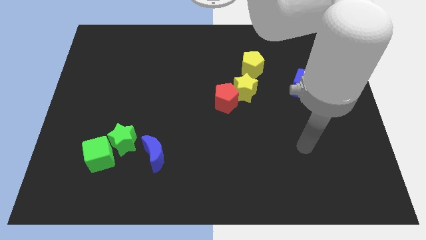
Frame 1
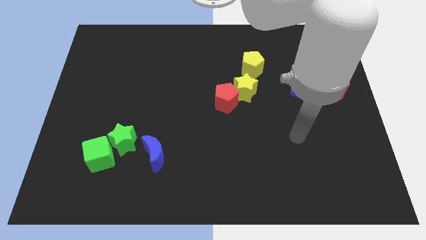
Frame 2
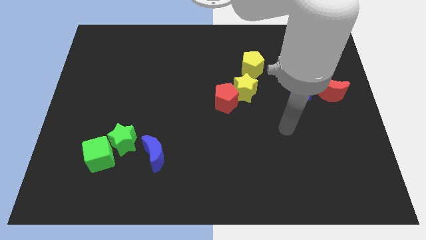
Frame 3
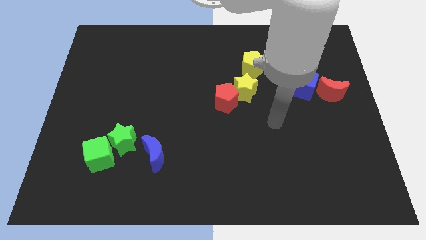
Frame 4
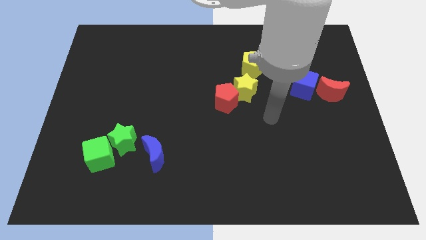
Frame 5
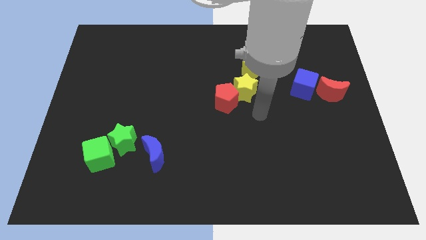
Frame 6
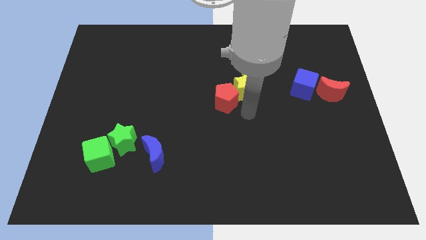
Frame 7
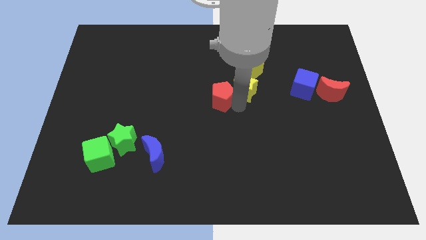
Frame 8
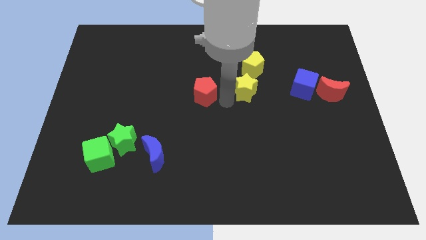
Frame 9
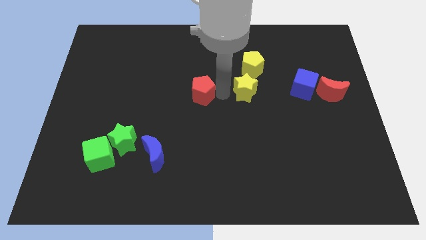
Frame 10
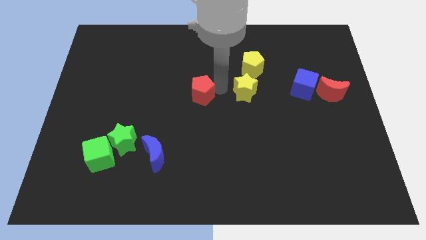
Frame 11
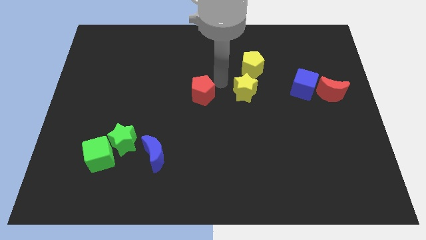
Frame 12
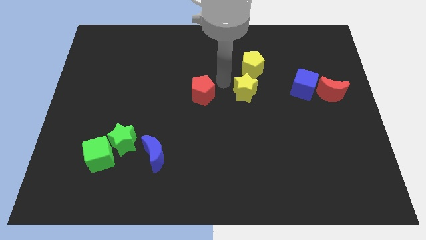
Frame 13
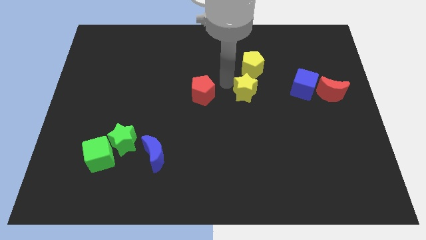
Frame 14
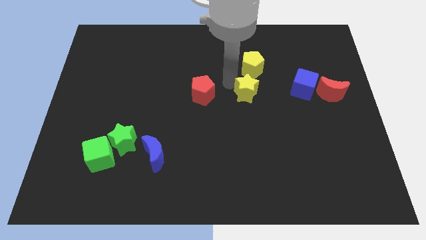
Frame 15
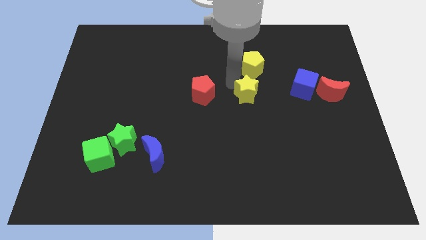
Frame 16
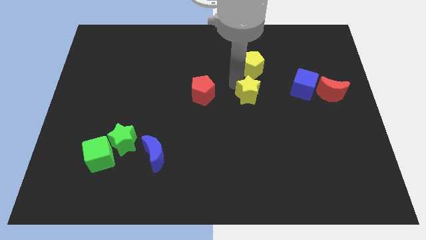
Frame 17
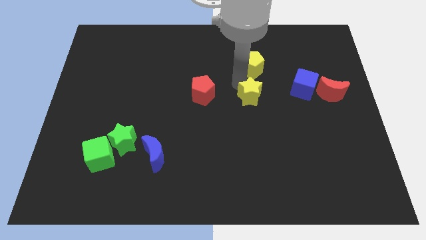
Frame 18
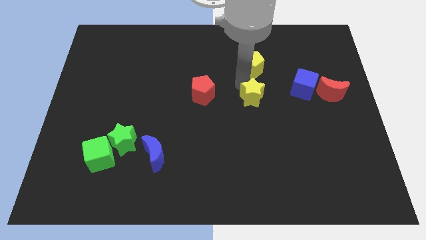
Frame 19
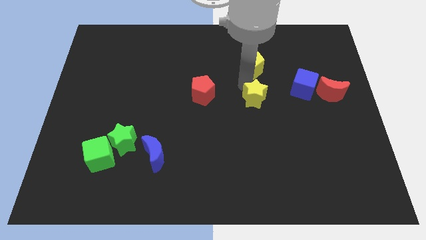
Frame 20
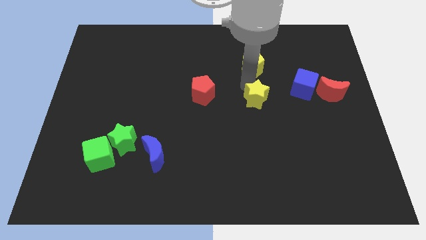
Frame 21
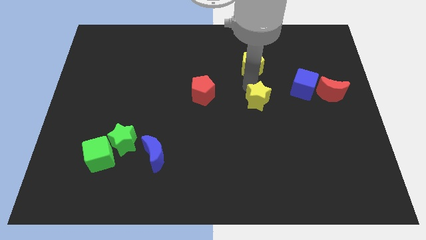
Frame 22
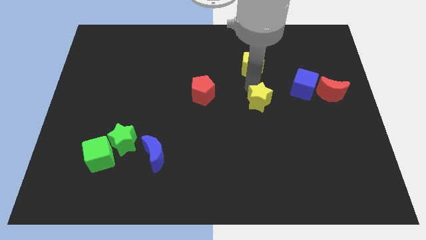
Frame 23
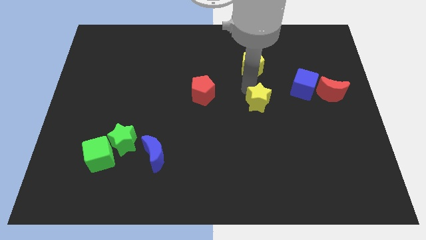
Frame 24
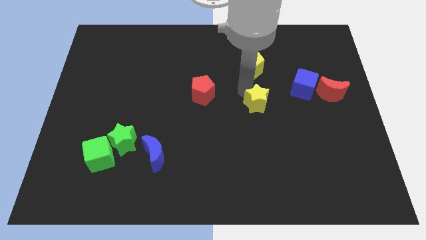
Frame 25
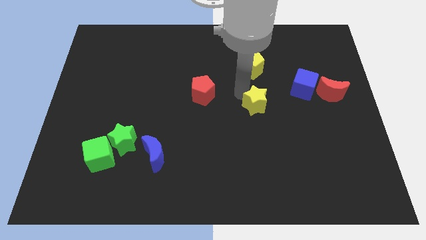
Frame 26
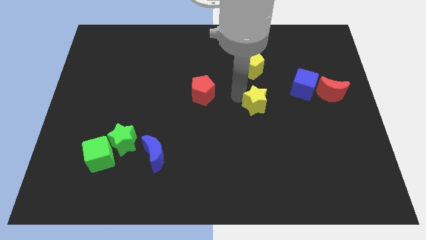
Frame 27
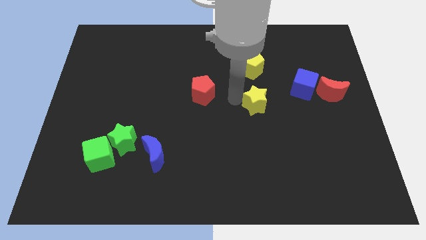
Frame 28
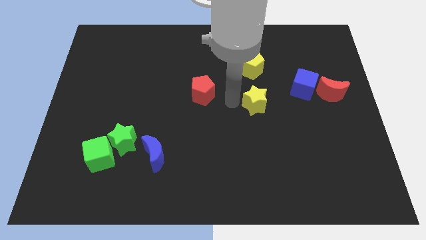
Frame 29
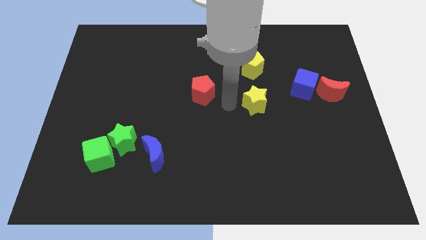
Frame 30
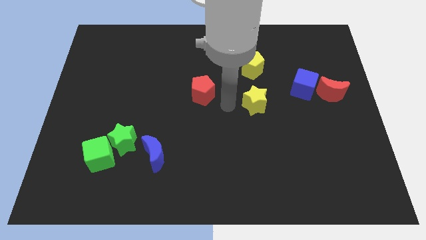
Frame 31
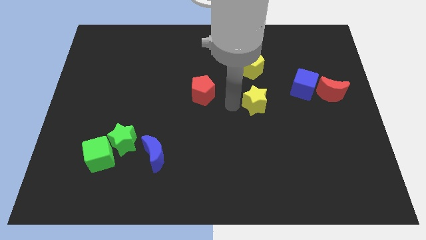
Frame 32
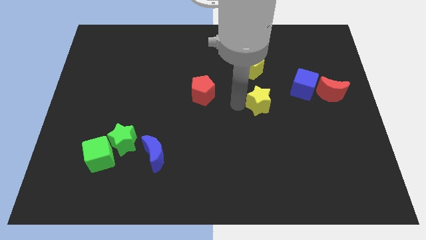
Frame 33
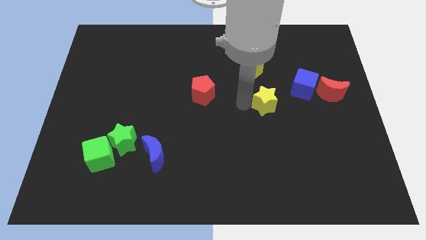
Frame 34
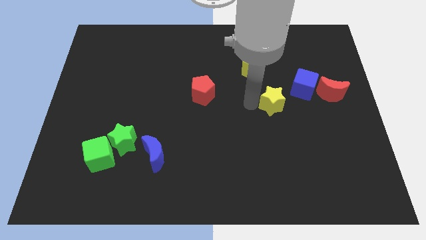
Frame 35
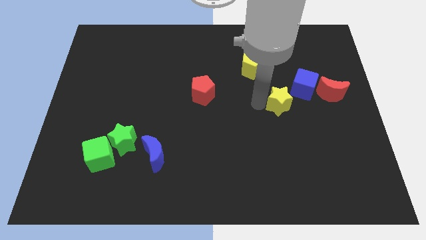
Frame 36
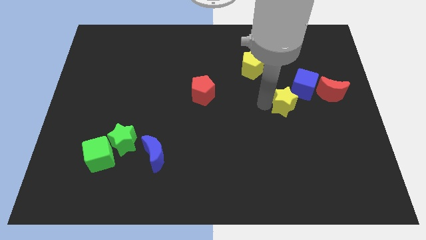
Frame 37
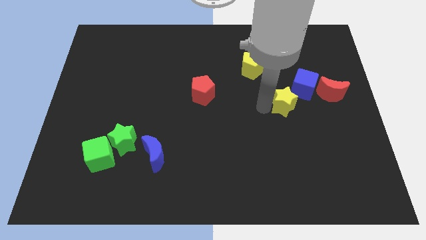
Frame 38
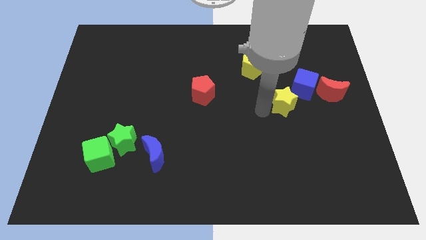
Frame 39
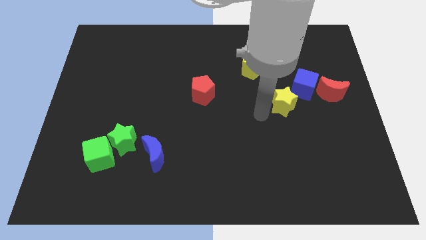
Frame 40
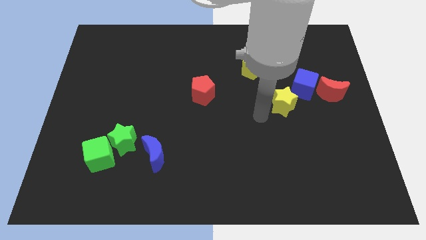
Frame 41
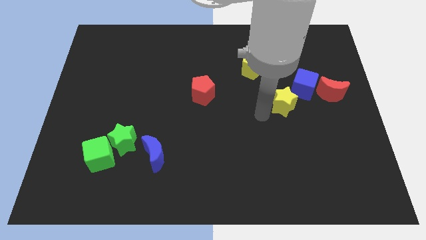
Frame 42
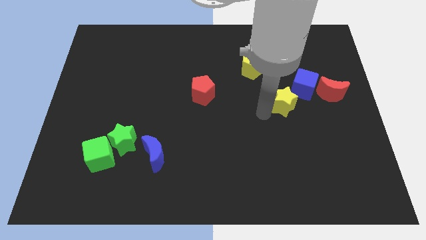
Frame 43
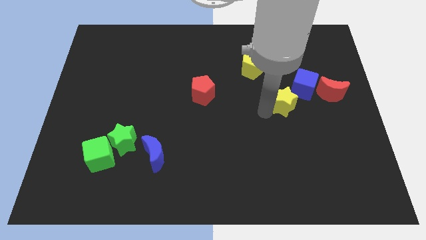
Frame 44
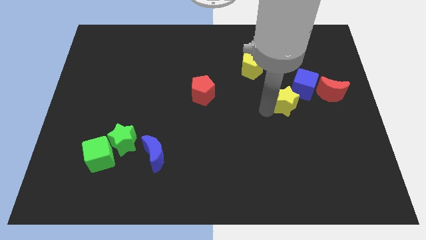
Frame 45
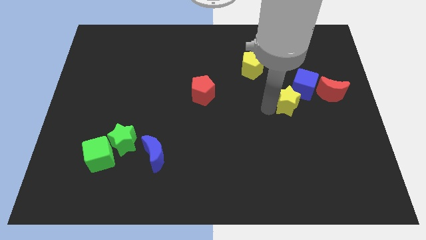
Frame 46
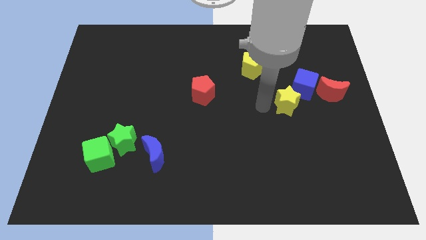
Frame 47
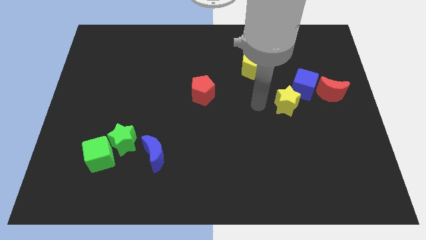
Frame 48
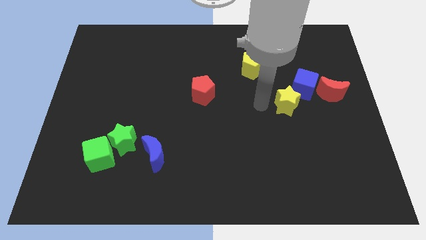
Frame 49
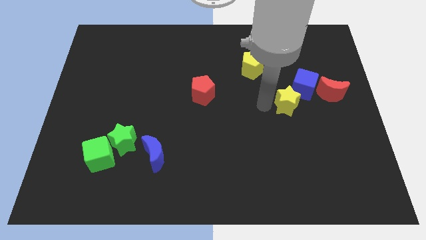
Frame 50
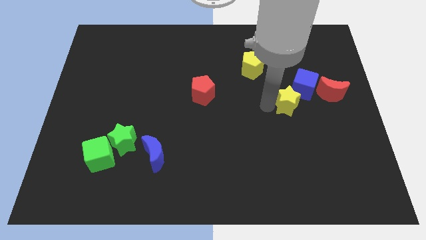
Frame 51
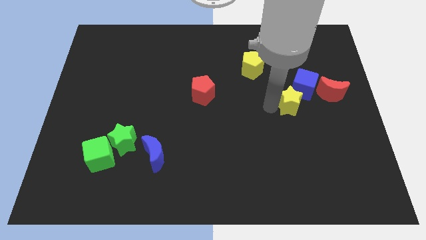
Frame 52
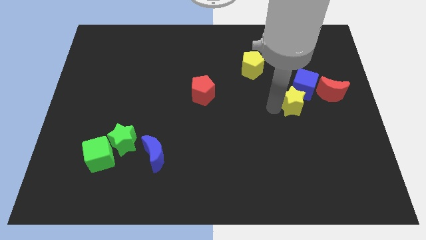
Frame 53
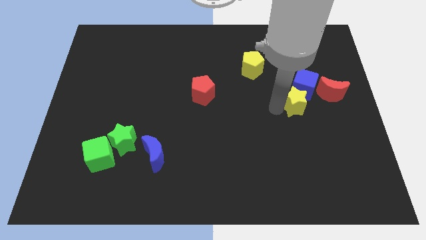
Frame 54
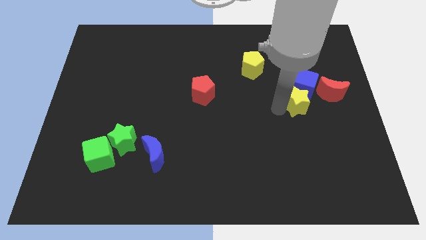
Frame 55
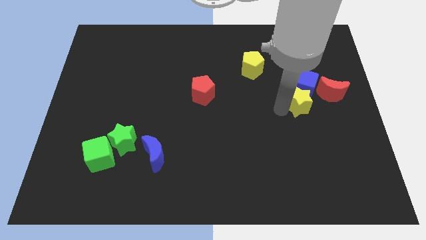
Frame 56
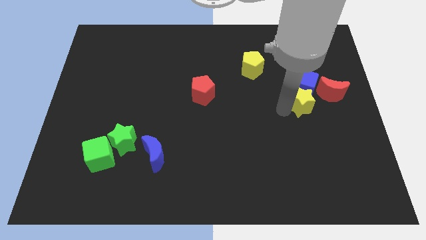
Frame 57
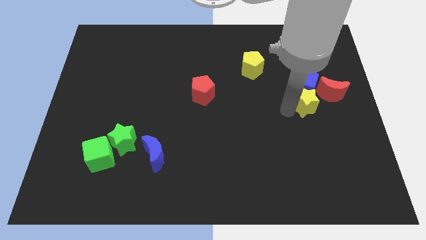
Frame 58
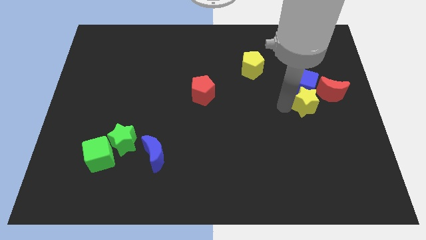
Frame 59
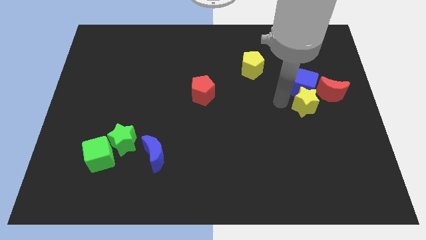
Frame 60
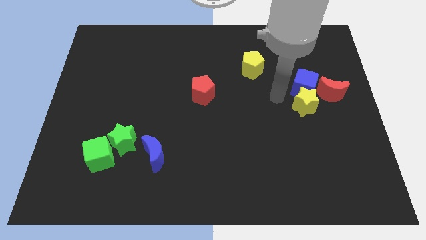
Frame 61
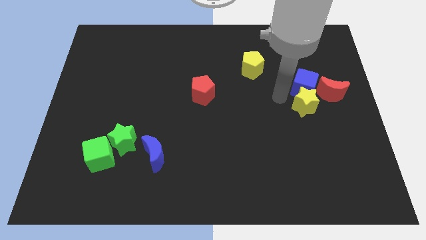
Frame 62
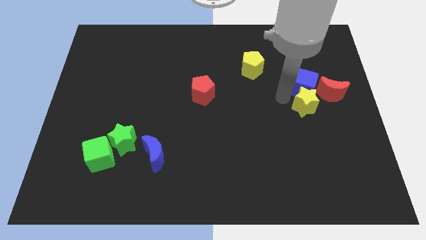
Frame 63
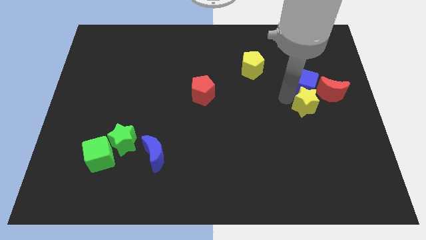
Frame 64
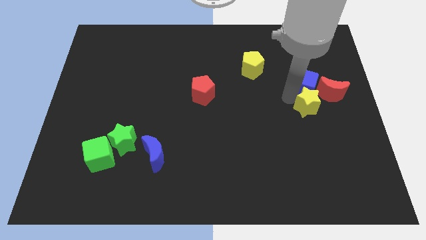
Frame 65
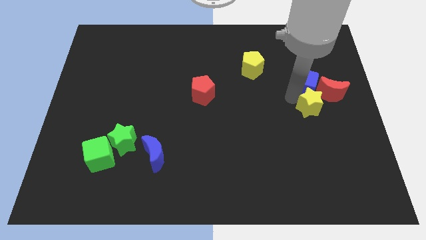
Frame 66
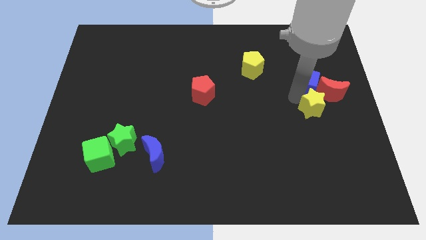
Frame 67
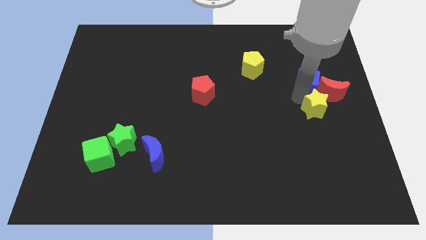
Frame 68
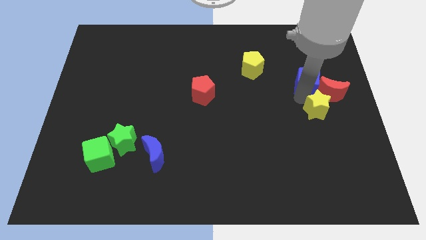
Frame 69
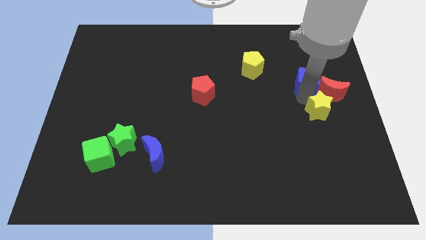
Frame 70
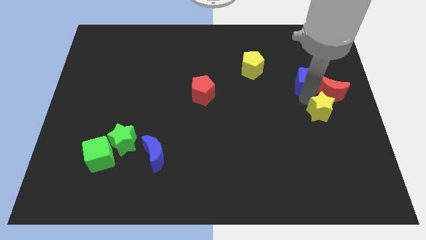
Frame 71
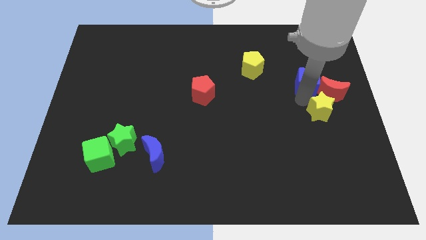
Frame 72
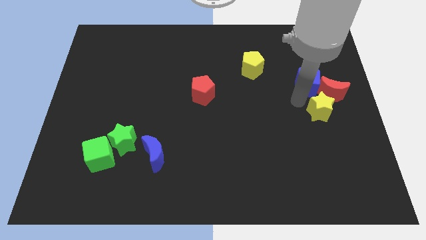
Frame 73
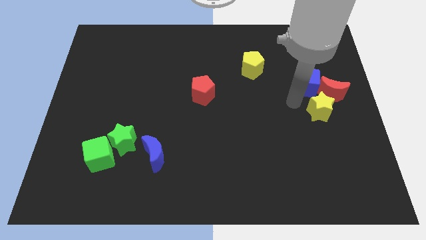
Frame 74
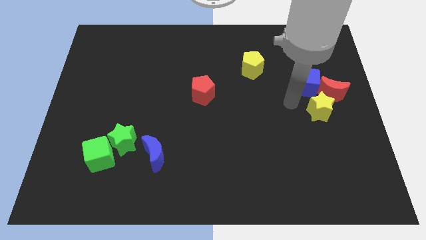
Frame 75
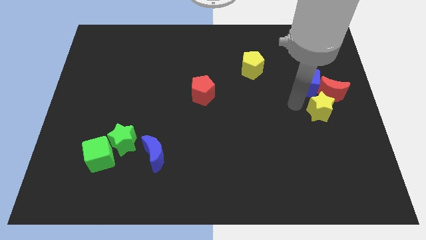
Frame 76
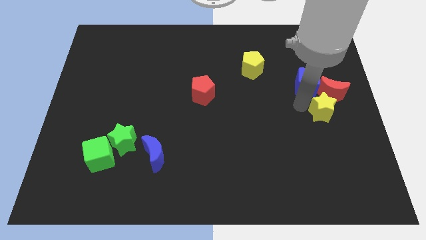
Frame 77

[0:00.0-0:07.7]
put the yellow star to the right side of the board
